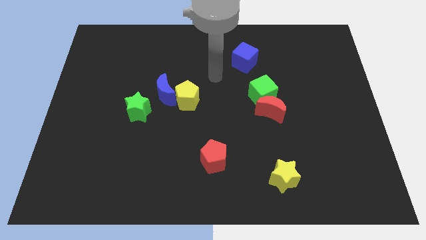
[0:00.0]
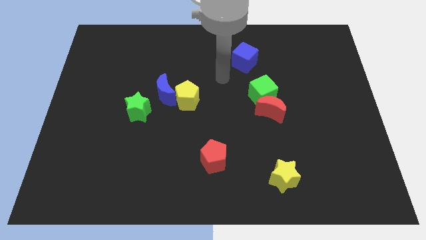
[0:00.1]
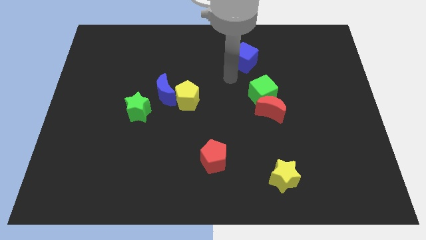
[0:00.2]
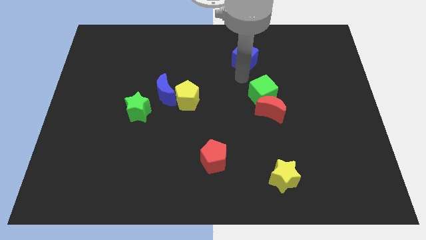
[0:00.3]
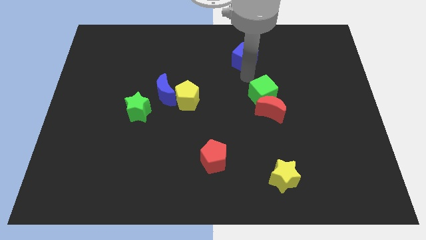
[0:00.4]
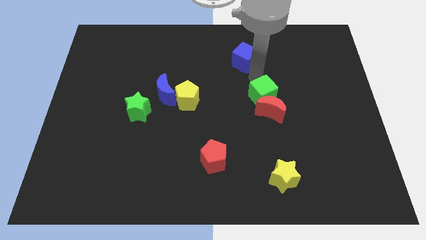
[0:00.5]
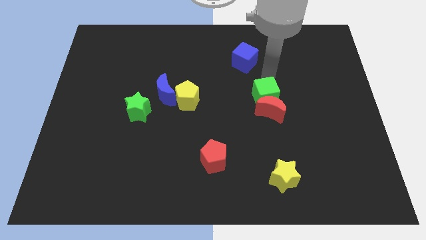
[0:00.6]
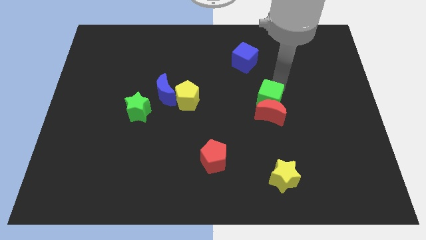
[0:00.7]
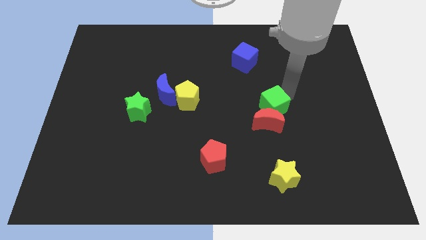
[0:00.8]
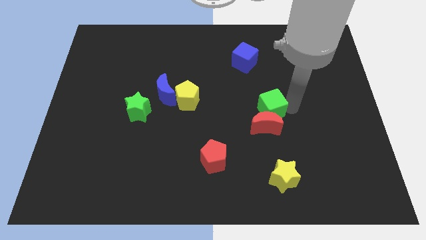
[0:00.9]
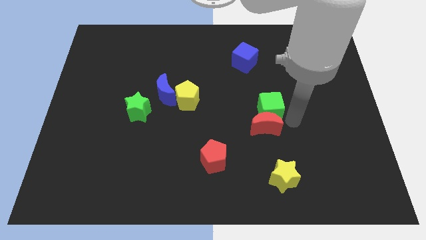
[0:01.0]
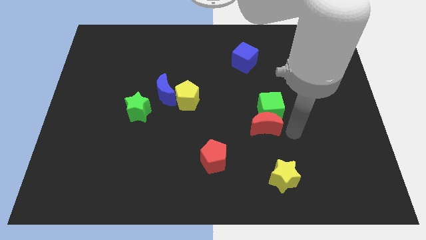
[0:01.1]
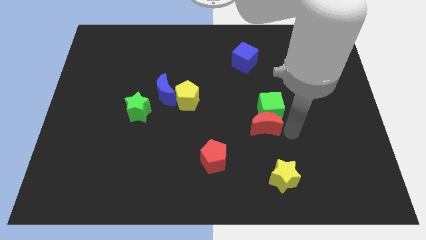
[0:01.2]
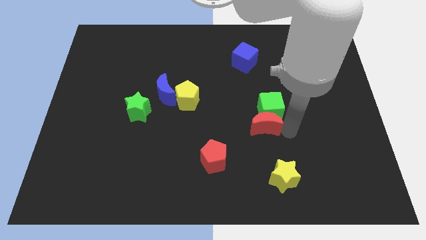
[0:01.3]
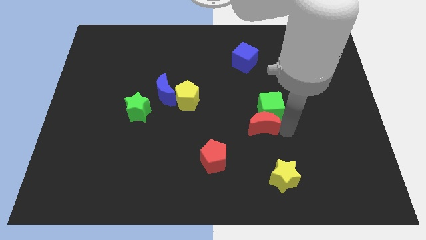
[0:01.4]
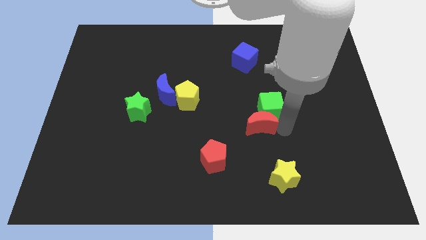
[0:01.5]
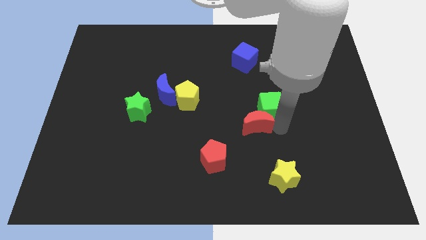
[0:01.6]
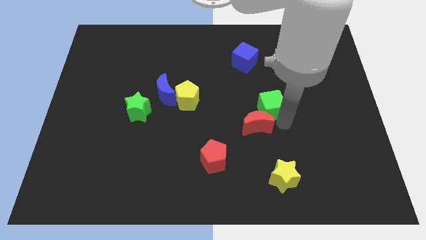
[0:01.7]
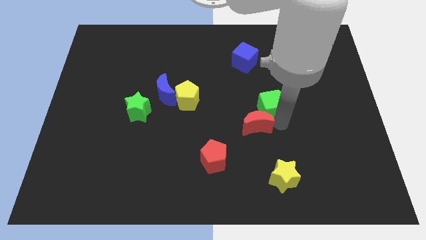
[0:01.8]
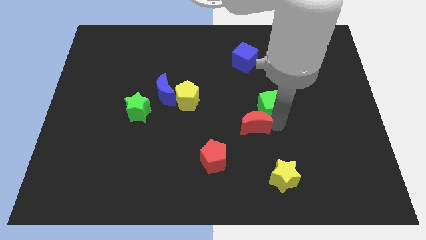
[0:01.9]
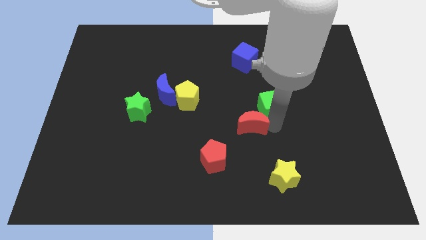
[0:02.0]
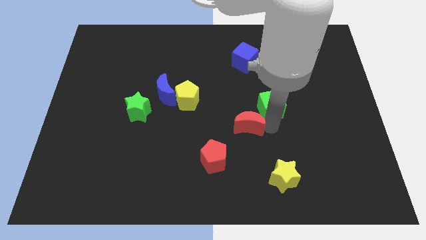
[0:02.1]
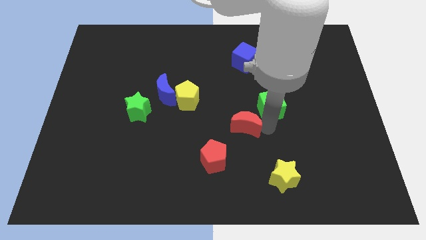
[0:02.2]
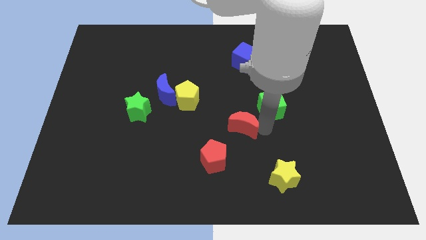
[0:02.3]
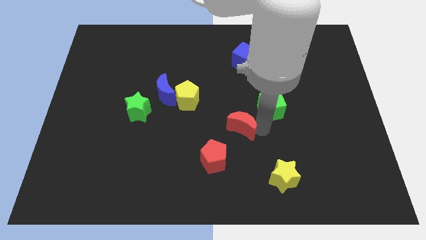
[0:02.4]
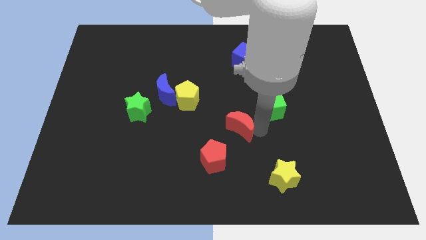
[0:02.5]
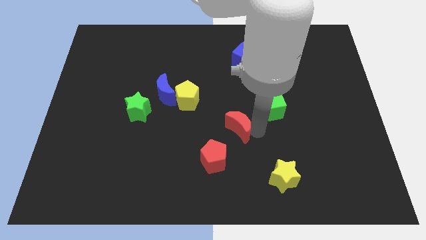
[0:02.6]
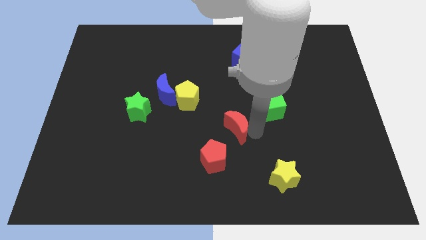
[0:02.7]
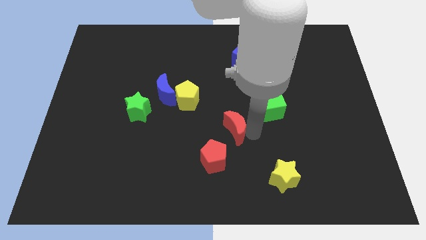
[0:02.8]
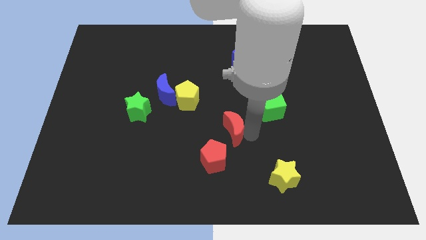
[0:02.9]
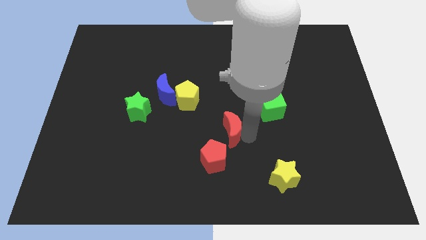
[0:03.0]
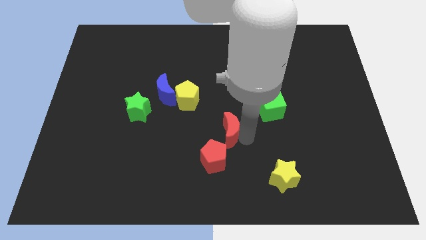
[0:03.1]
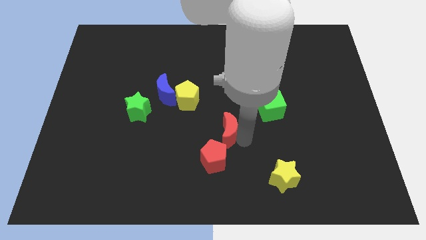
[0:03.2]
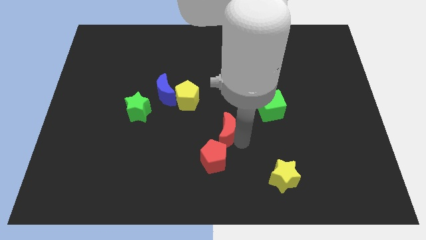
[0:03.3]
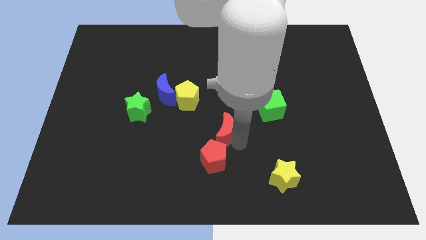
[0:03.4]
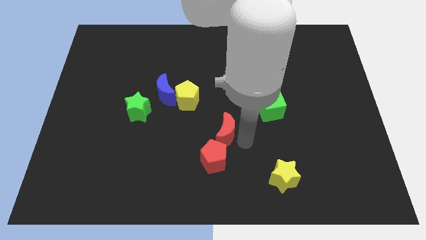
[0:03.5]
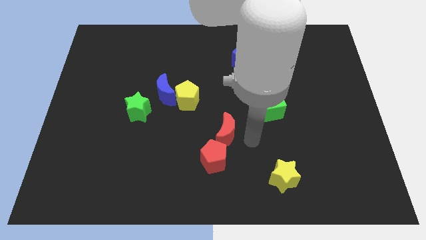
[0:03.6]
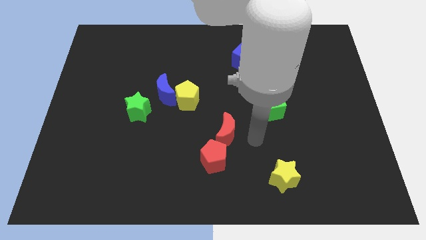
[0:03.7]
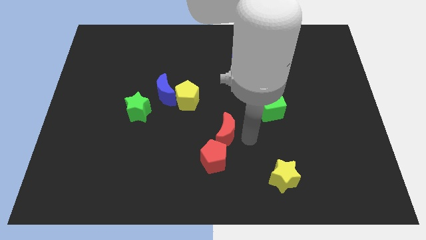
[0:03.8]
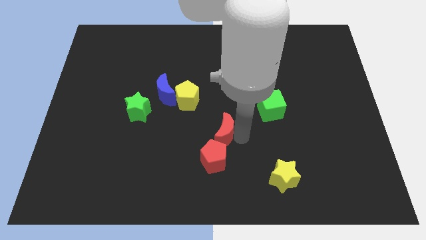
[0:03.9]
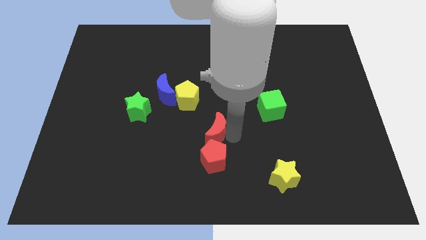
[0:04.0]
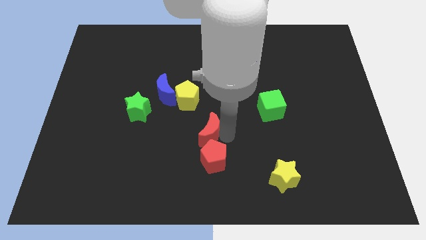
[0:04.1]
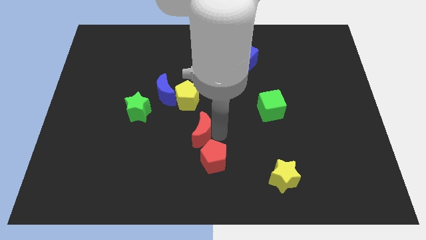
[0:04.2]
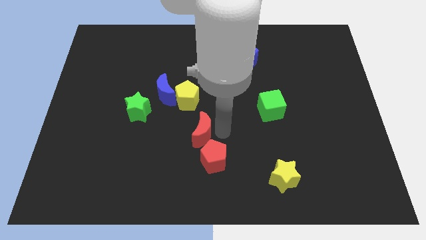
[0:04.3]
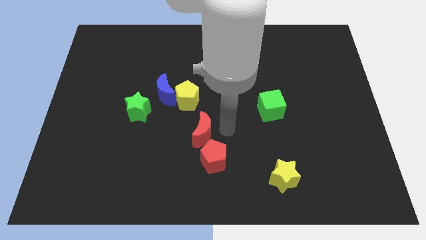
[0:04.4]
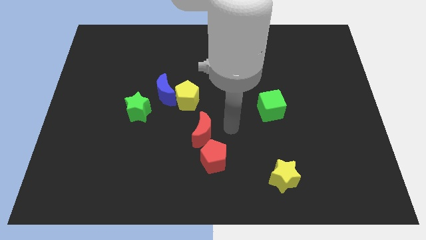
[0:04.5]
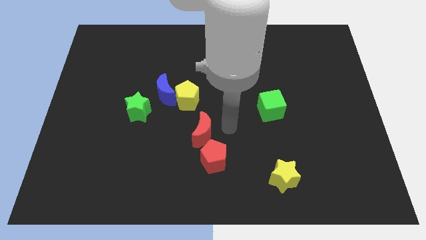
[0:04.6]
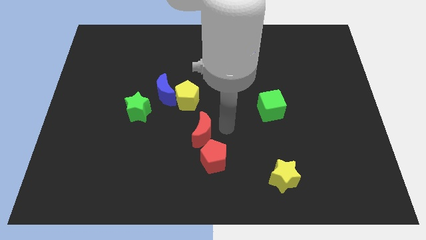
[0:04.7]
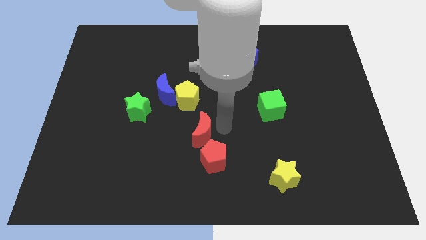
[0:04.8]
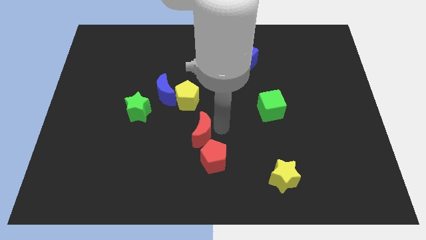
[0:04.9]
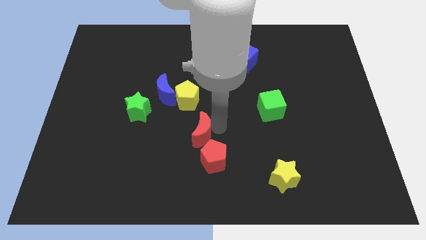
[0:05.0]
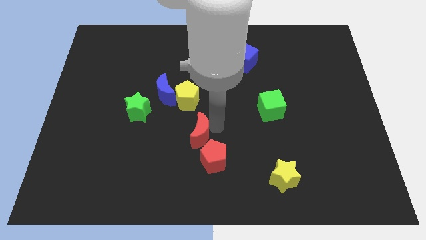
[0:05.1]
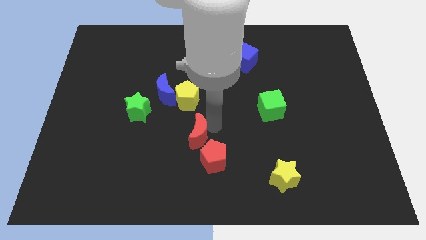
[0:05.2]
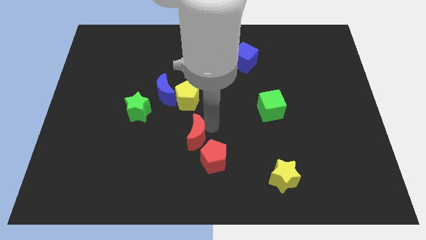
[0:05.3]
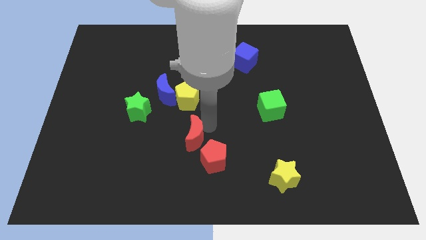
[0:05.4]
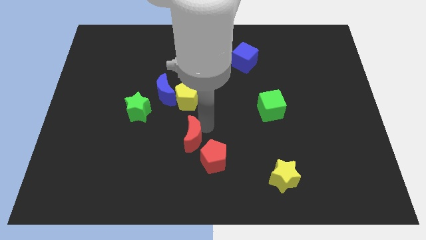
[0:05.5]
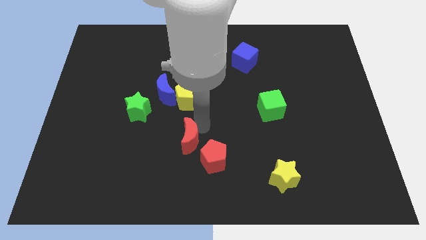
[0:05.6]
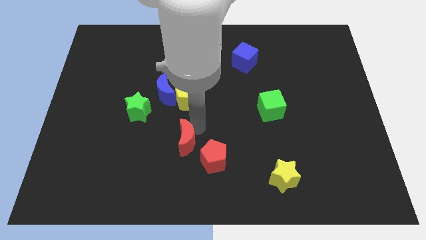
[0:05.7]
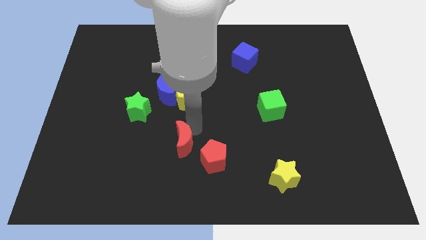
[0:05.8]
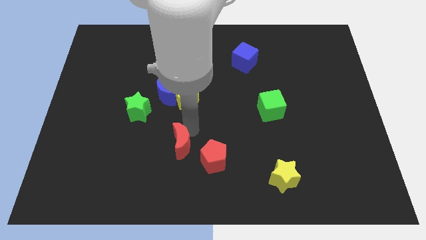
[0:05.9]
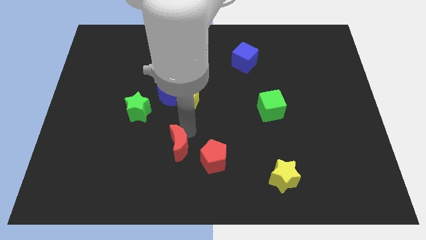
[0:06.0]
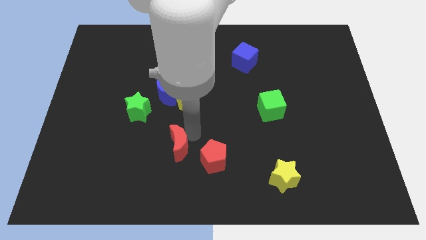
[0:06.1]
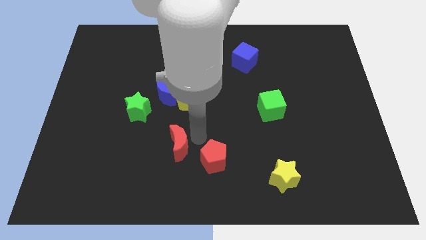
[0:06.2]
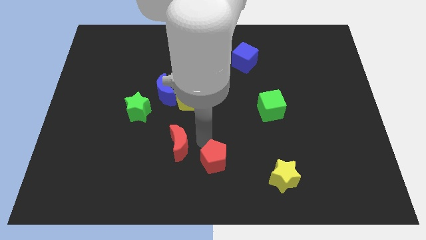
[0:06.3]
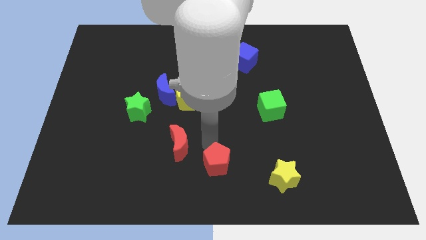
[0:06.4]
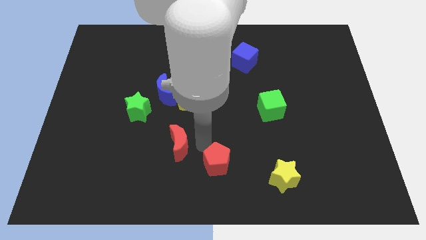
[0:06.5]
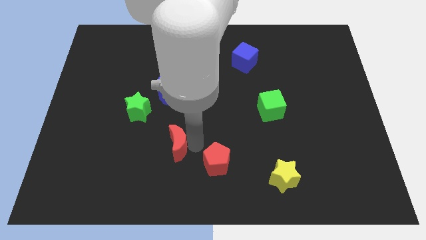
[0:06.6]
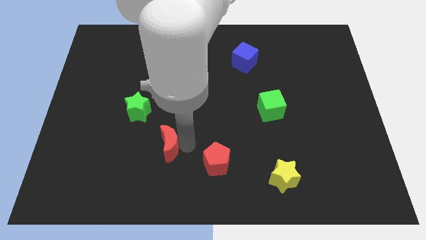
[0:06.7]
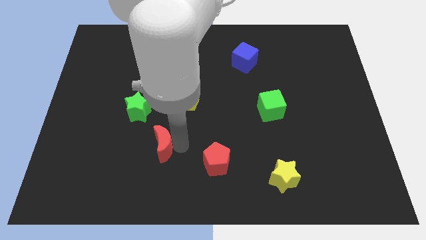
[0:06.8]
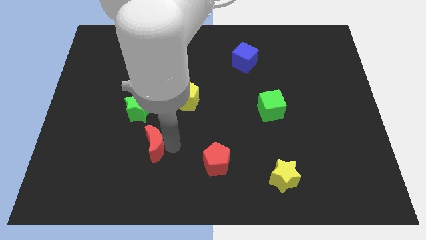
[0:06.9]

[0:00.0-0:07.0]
slide the red moon to the bottom side of the green star
